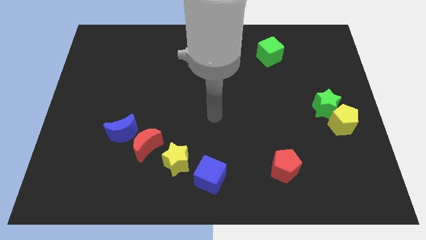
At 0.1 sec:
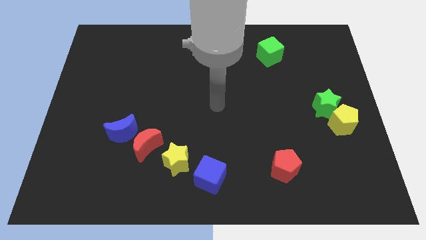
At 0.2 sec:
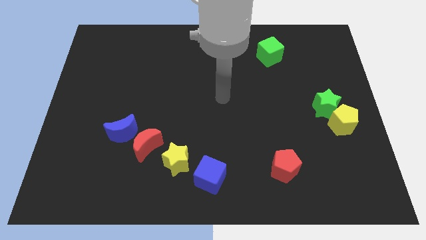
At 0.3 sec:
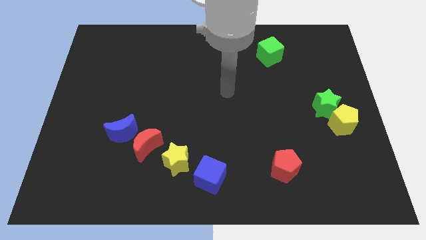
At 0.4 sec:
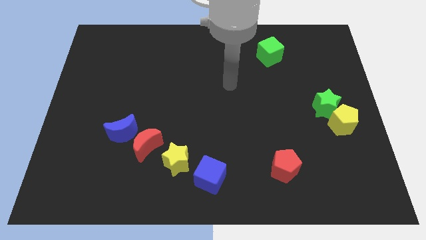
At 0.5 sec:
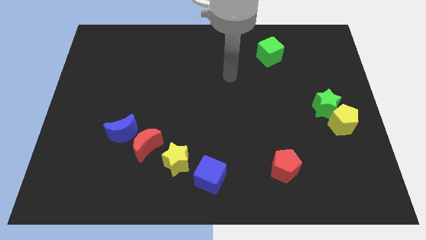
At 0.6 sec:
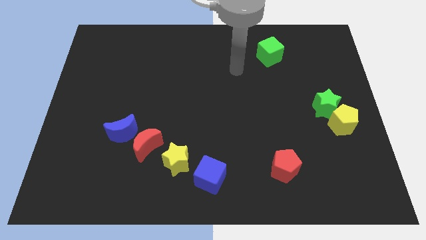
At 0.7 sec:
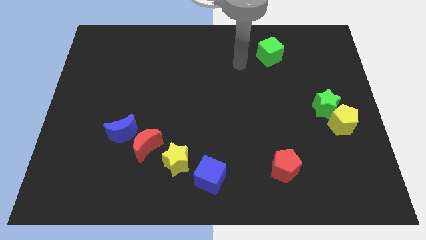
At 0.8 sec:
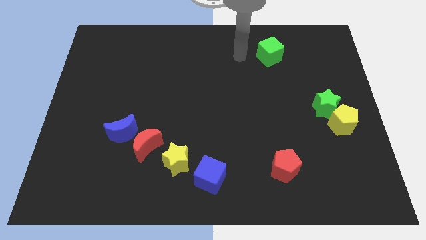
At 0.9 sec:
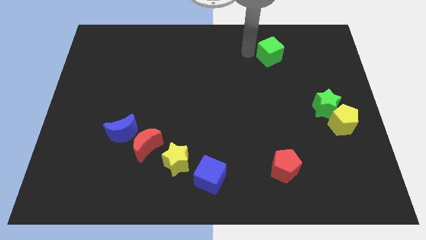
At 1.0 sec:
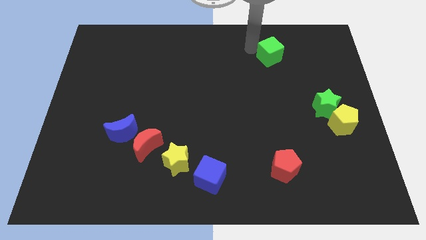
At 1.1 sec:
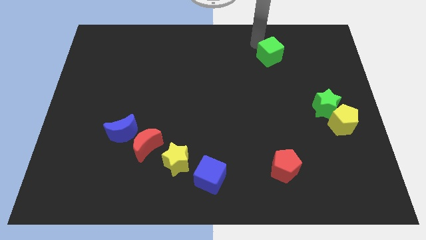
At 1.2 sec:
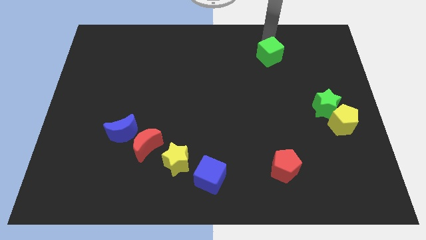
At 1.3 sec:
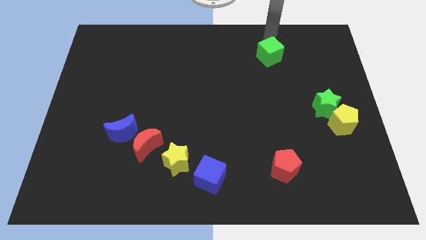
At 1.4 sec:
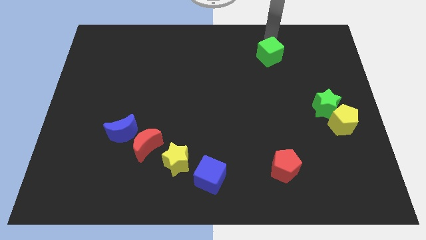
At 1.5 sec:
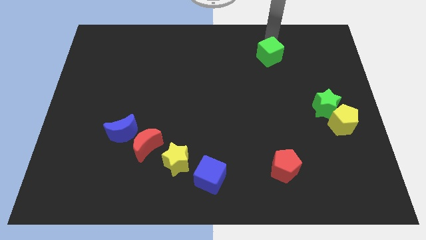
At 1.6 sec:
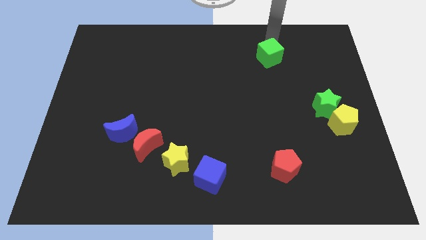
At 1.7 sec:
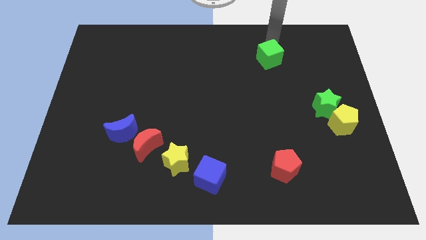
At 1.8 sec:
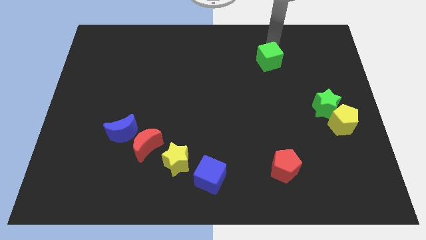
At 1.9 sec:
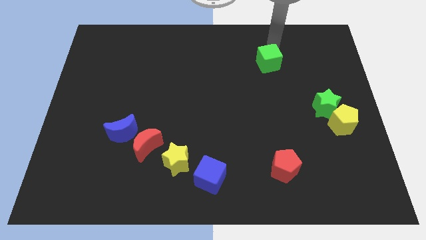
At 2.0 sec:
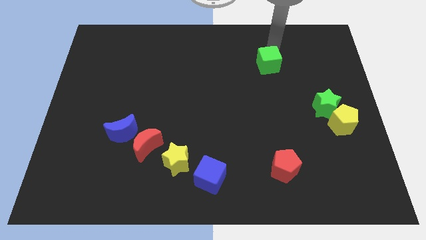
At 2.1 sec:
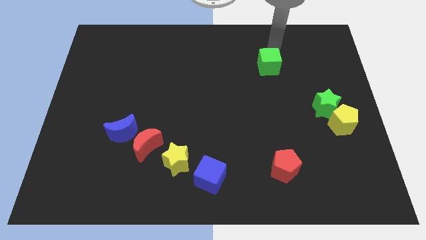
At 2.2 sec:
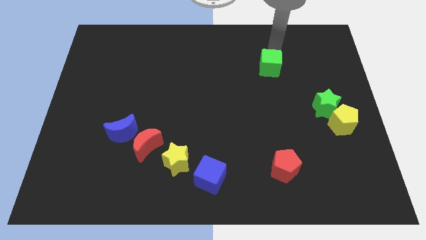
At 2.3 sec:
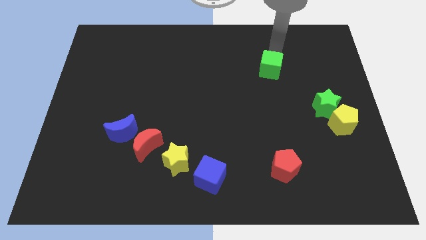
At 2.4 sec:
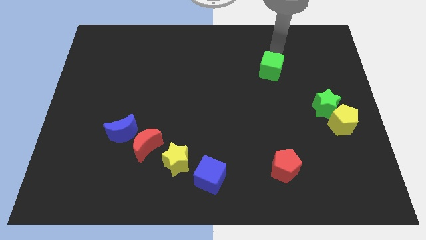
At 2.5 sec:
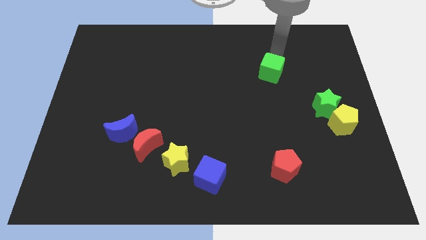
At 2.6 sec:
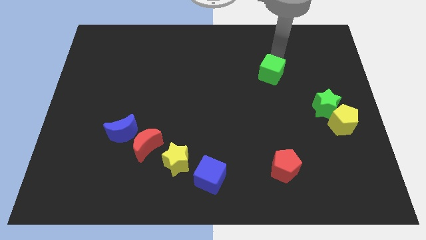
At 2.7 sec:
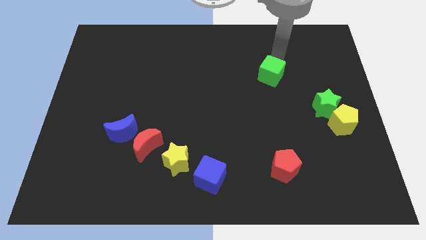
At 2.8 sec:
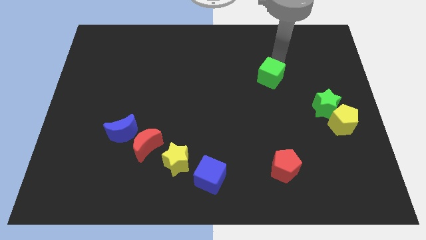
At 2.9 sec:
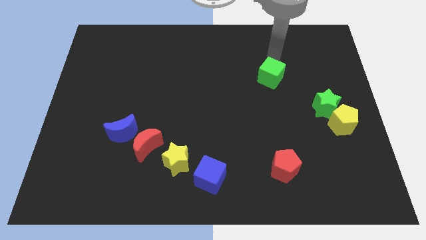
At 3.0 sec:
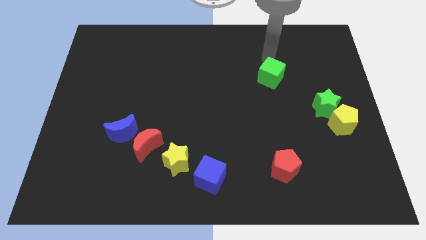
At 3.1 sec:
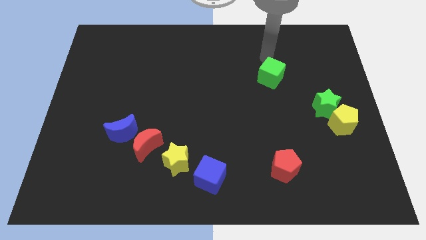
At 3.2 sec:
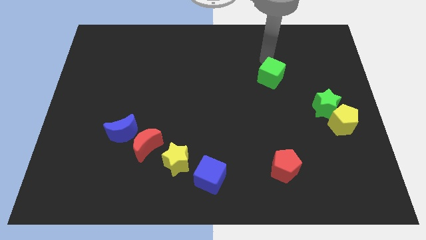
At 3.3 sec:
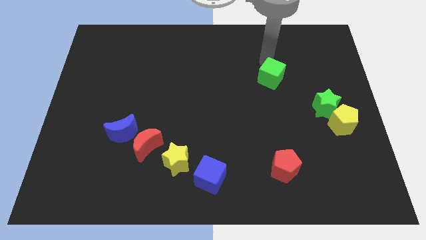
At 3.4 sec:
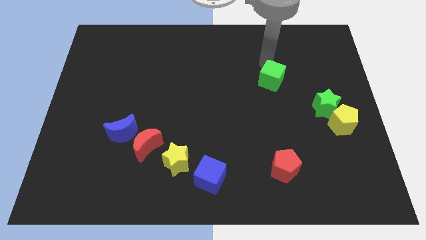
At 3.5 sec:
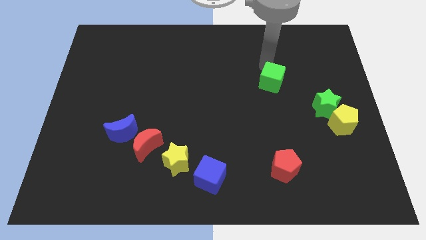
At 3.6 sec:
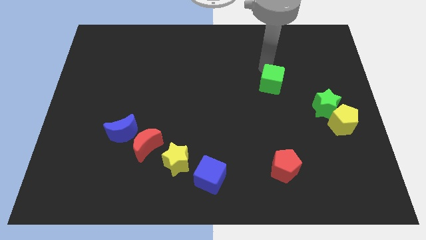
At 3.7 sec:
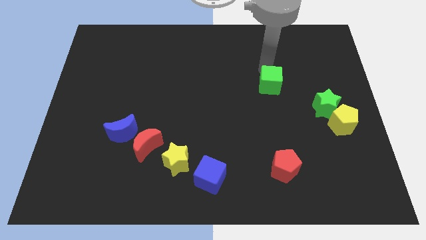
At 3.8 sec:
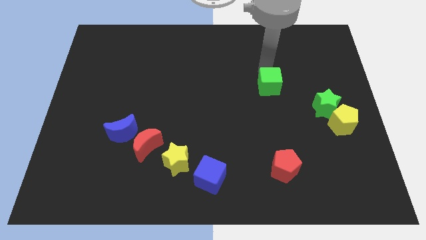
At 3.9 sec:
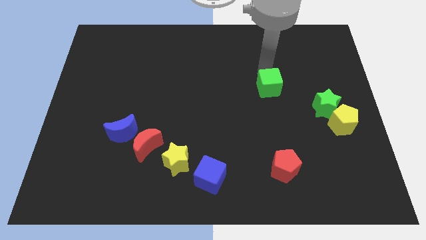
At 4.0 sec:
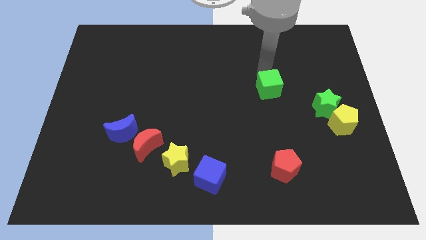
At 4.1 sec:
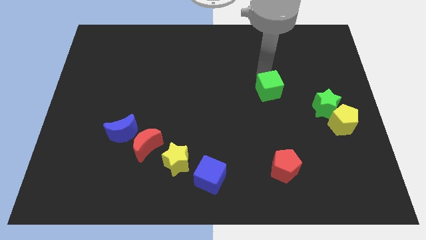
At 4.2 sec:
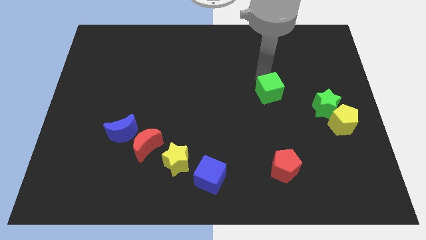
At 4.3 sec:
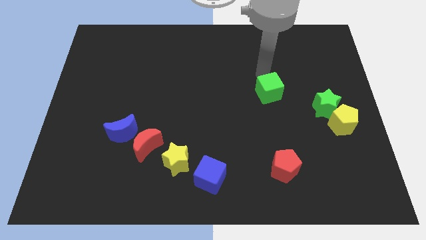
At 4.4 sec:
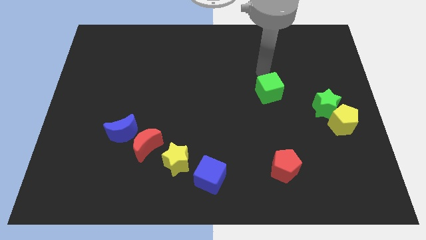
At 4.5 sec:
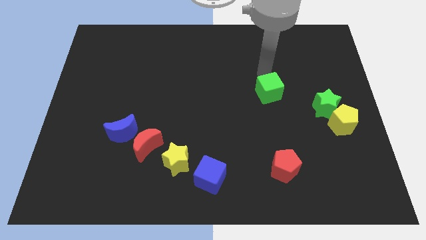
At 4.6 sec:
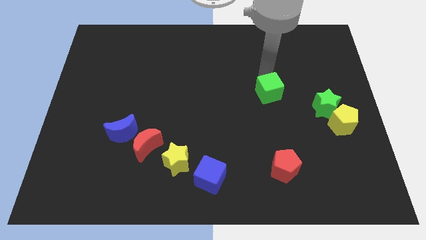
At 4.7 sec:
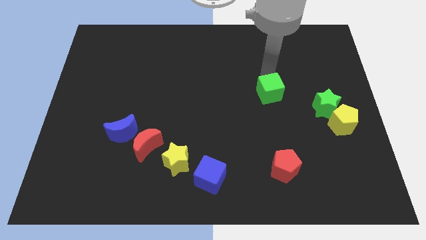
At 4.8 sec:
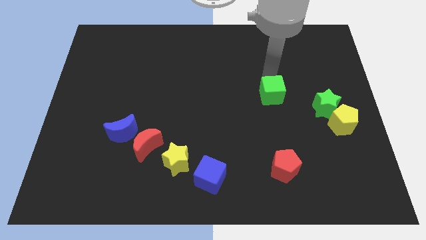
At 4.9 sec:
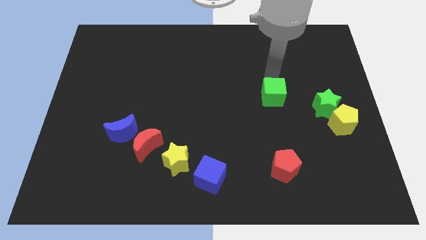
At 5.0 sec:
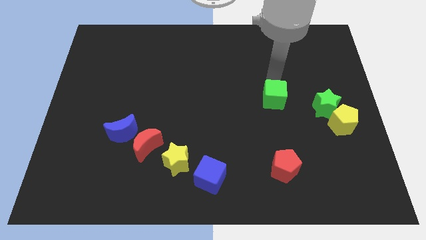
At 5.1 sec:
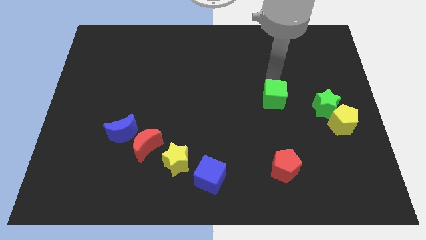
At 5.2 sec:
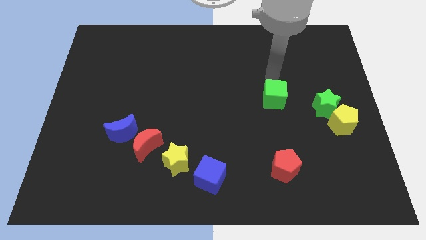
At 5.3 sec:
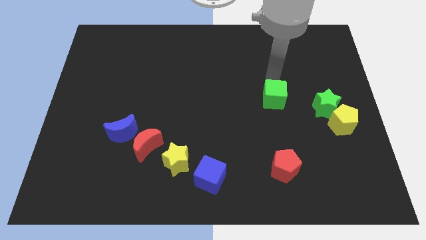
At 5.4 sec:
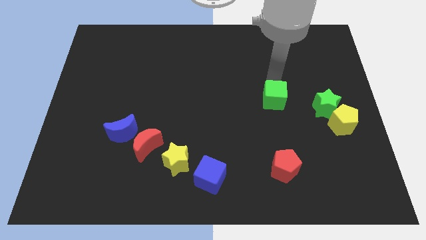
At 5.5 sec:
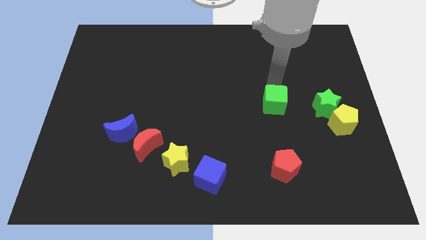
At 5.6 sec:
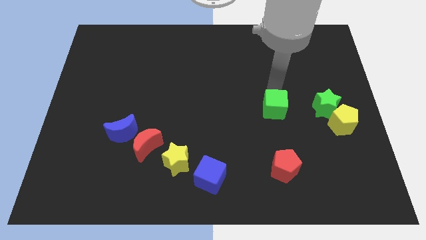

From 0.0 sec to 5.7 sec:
put the green cube to the top side of the red pentagon

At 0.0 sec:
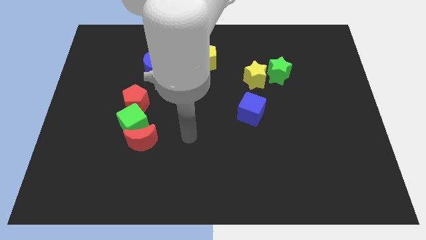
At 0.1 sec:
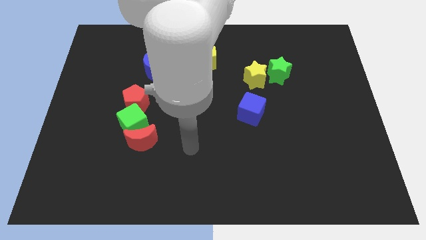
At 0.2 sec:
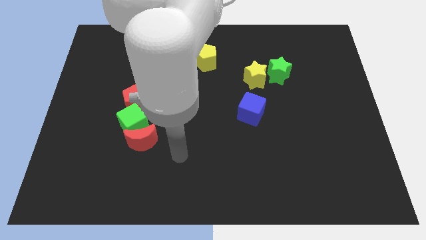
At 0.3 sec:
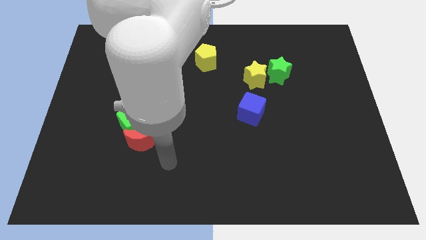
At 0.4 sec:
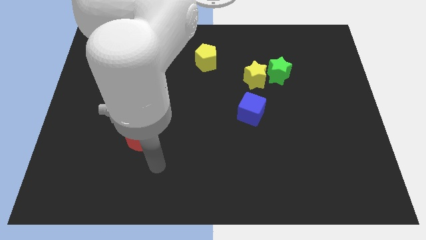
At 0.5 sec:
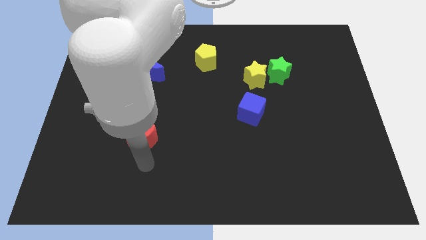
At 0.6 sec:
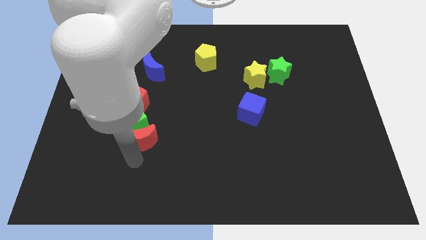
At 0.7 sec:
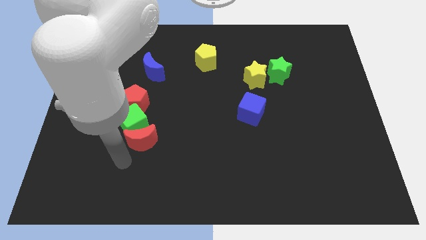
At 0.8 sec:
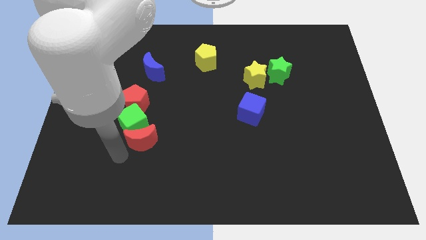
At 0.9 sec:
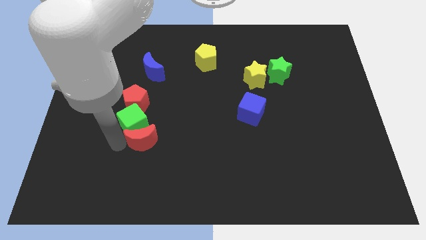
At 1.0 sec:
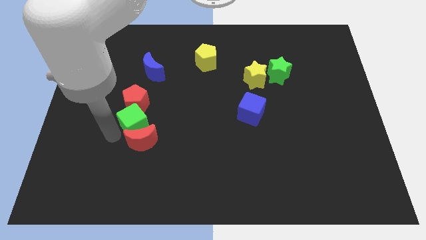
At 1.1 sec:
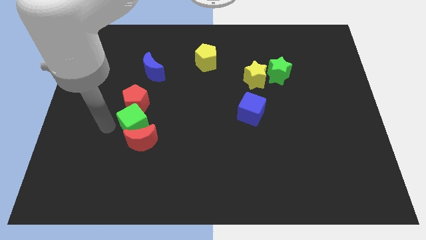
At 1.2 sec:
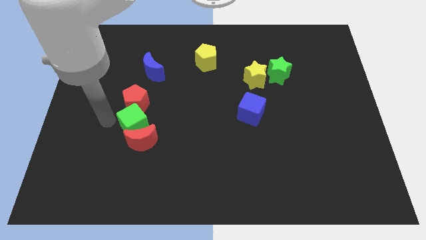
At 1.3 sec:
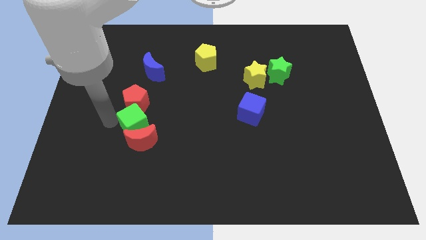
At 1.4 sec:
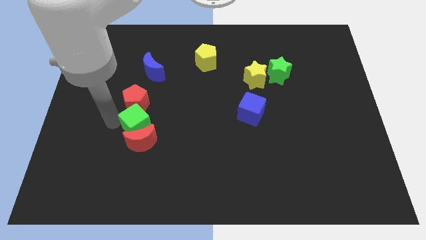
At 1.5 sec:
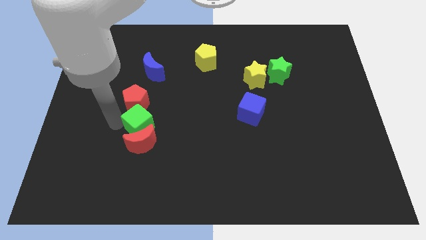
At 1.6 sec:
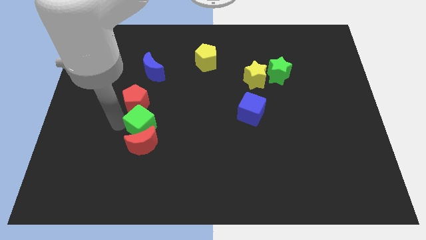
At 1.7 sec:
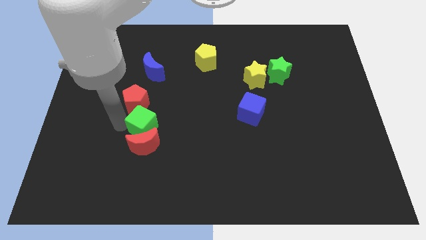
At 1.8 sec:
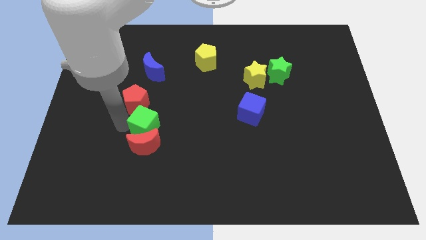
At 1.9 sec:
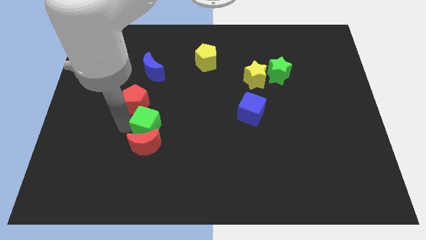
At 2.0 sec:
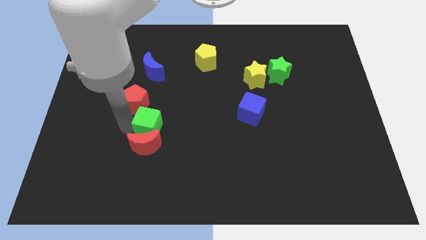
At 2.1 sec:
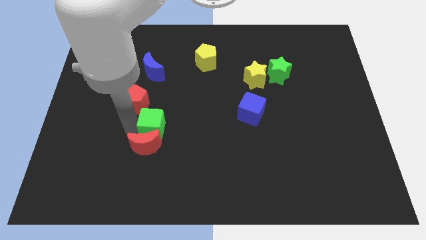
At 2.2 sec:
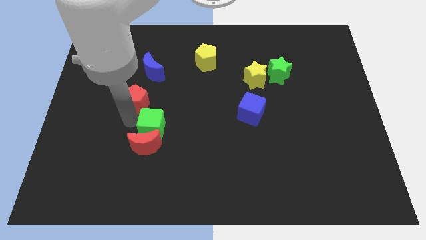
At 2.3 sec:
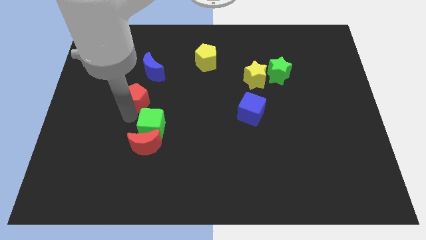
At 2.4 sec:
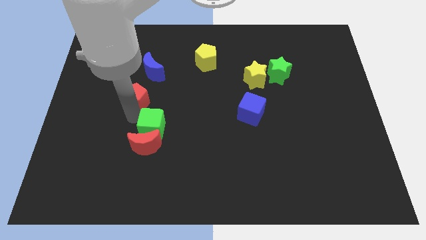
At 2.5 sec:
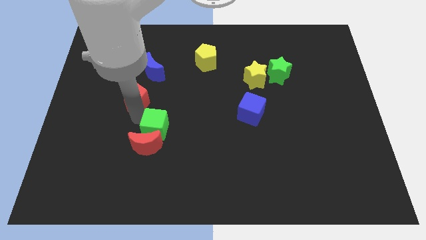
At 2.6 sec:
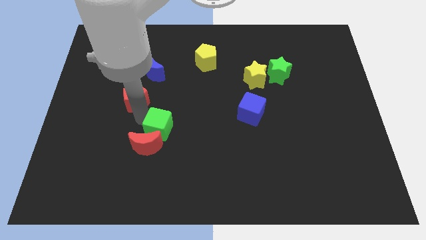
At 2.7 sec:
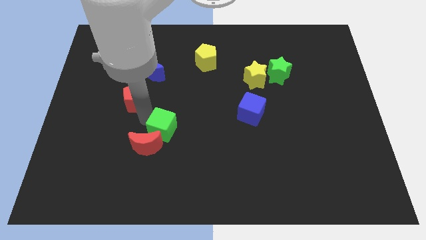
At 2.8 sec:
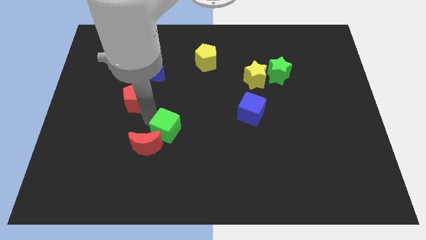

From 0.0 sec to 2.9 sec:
slide the green cube to the right side of the red moon
